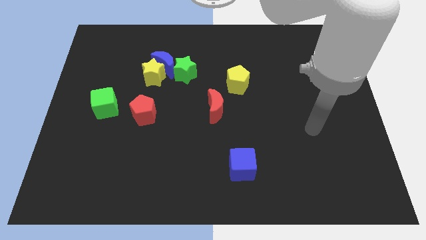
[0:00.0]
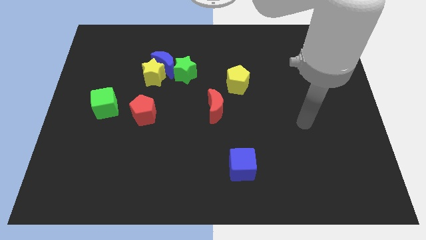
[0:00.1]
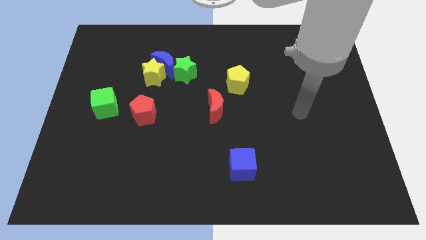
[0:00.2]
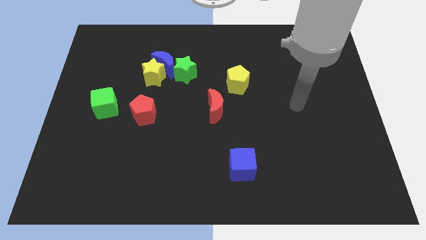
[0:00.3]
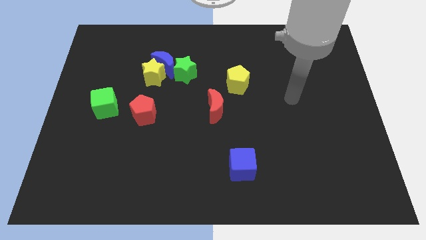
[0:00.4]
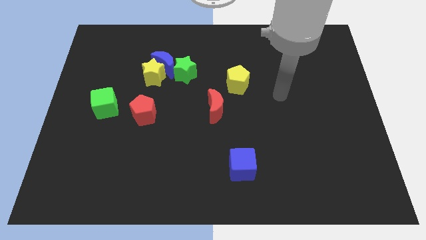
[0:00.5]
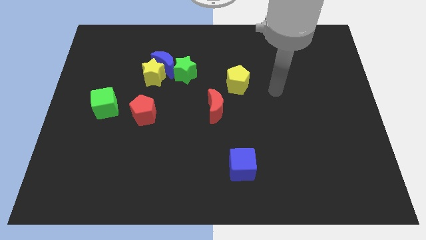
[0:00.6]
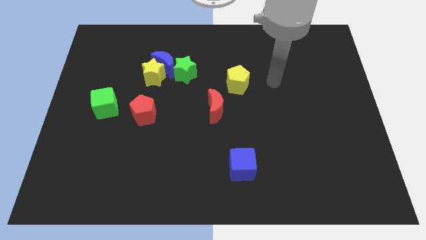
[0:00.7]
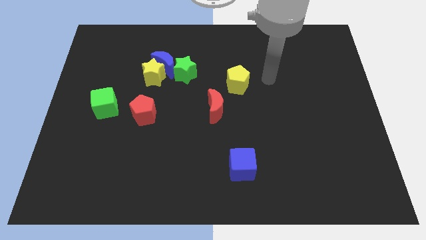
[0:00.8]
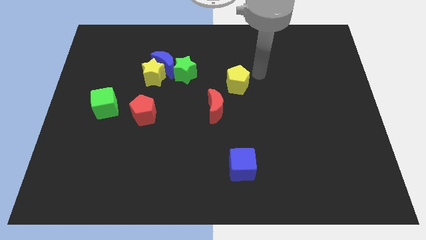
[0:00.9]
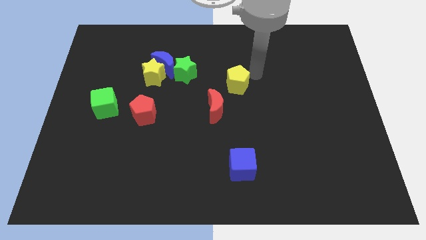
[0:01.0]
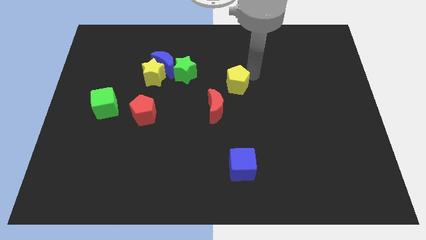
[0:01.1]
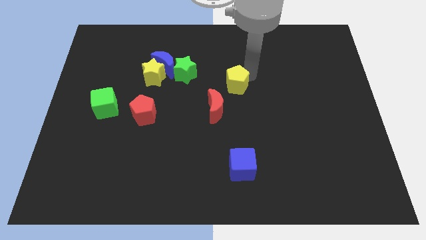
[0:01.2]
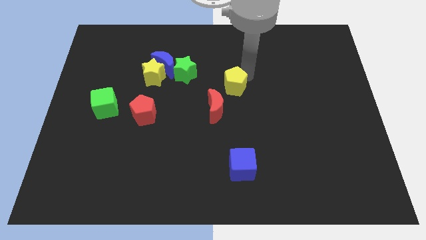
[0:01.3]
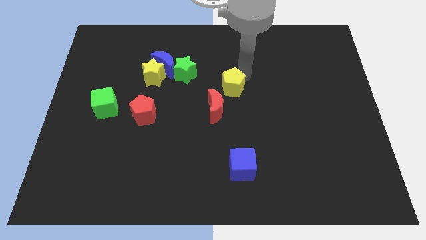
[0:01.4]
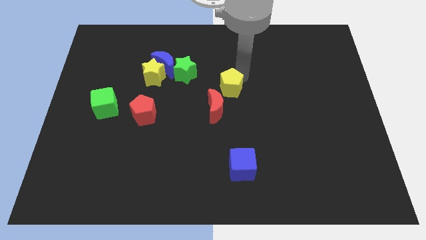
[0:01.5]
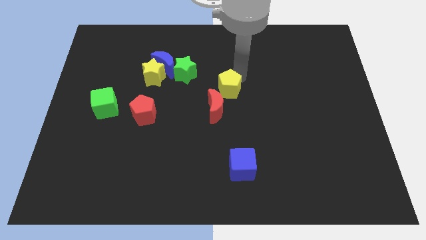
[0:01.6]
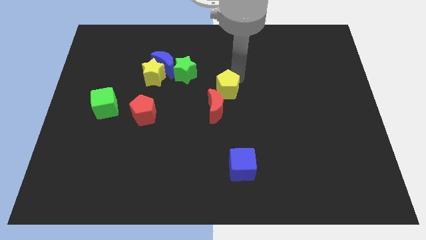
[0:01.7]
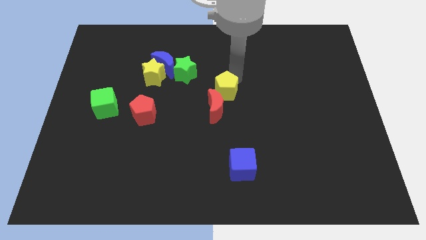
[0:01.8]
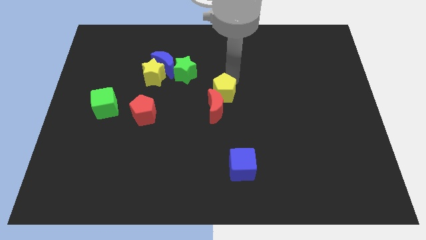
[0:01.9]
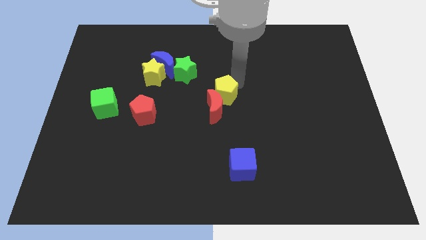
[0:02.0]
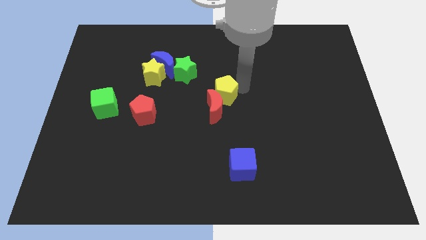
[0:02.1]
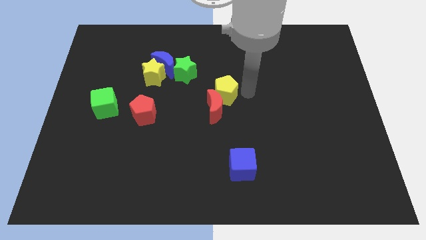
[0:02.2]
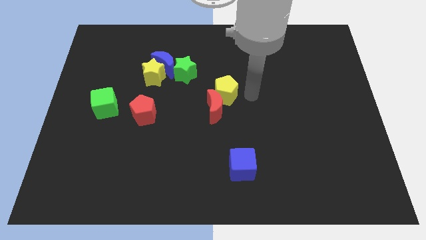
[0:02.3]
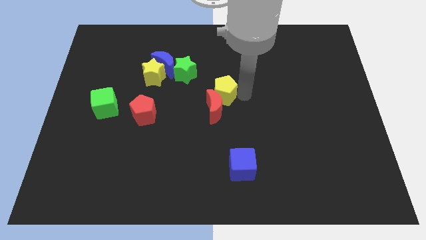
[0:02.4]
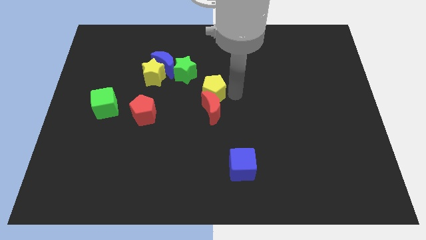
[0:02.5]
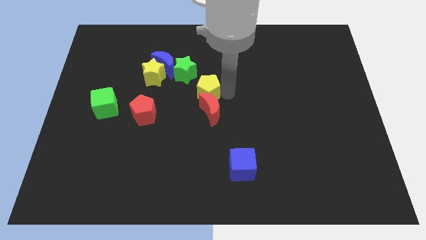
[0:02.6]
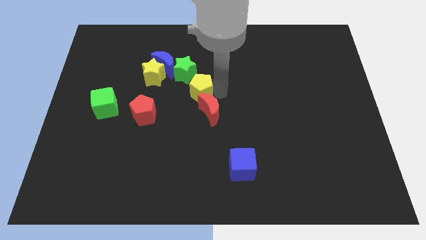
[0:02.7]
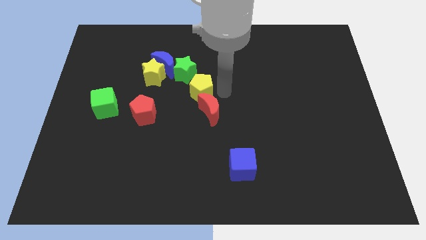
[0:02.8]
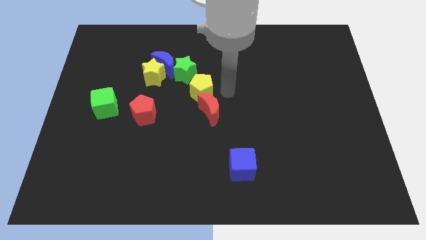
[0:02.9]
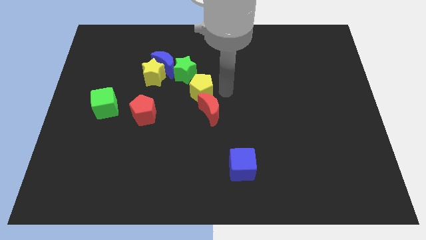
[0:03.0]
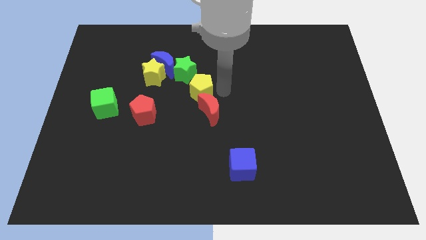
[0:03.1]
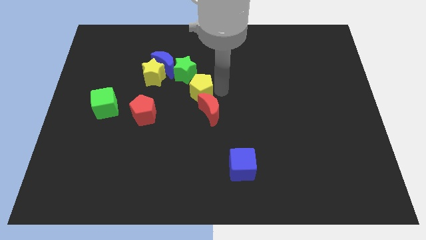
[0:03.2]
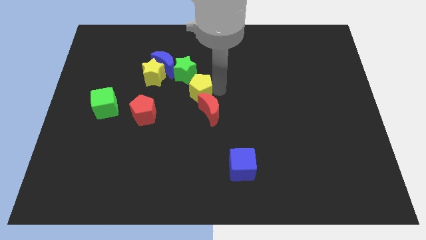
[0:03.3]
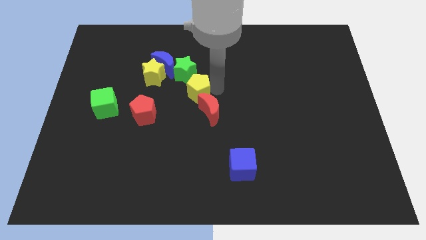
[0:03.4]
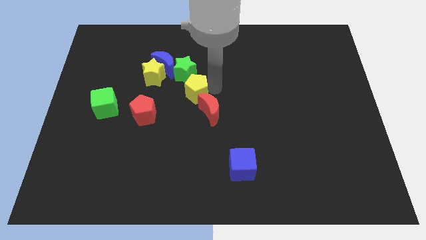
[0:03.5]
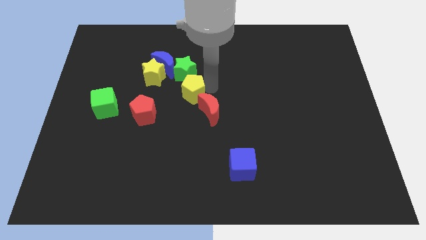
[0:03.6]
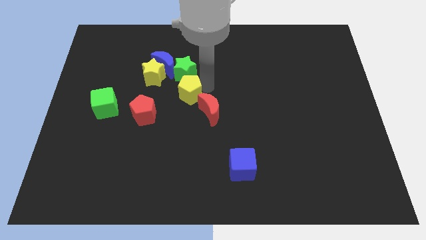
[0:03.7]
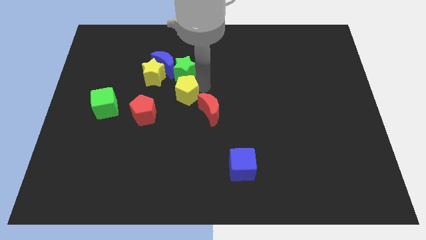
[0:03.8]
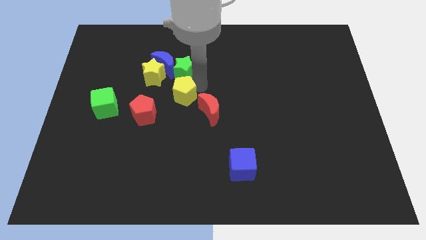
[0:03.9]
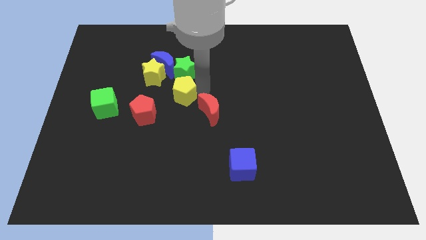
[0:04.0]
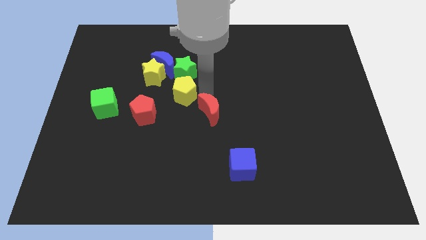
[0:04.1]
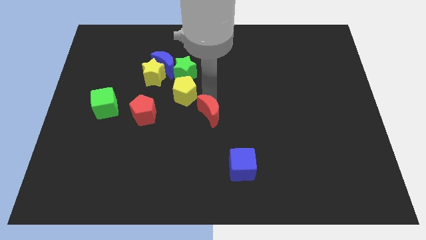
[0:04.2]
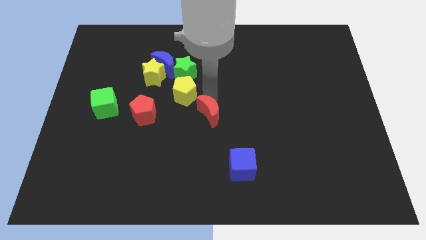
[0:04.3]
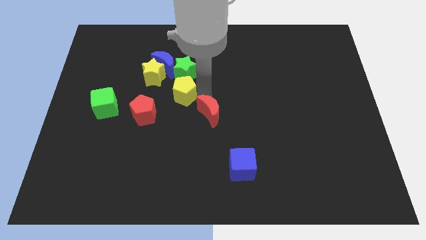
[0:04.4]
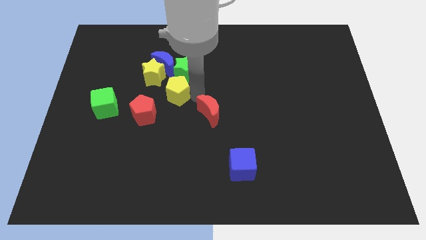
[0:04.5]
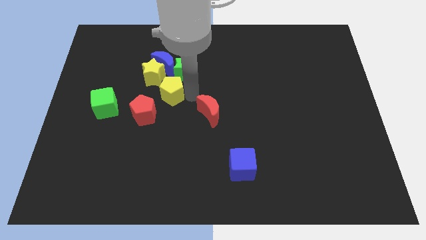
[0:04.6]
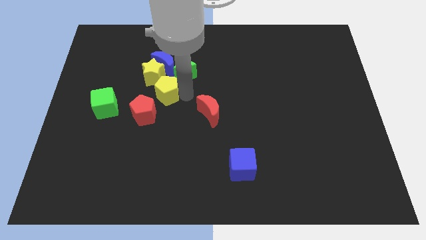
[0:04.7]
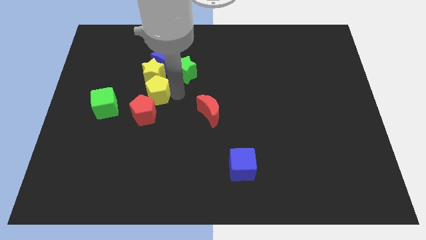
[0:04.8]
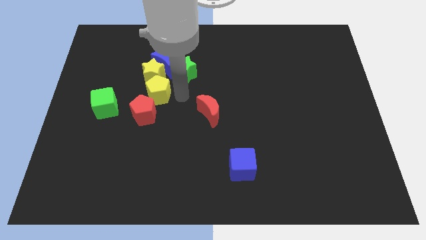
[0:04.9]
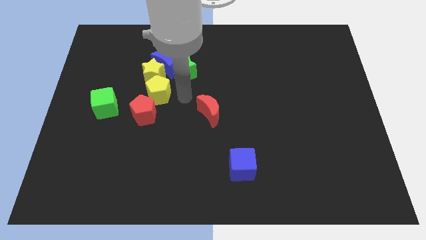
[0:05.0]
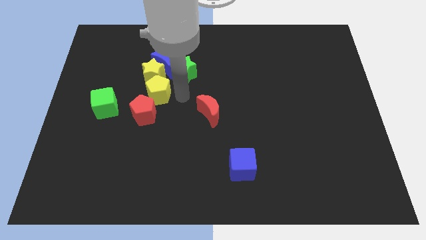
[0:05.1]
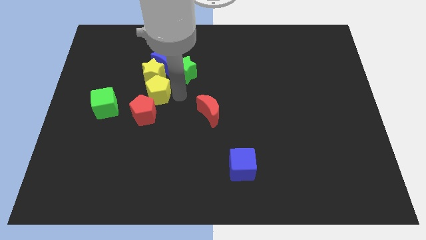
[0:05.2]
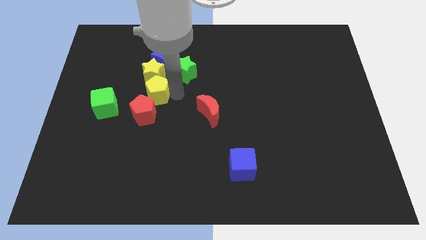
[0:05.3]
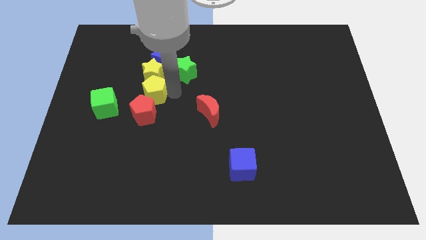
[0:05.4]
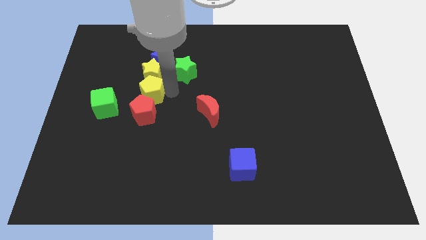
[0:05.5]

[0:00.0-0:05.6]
slide the yellow pentagon left

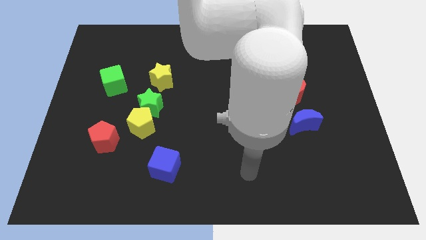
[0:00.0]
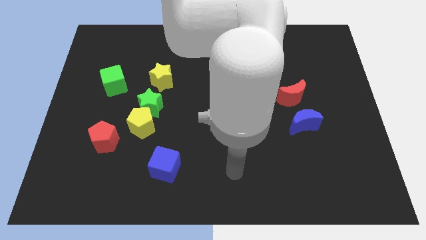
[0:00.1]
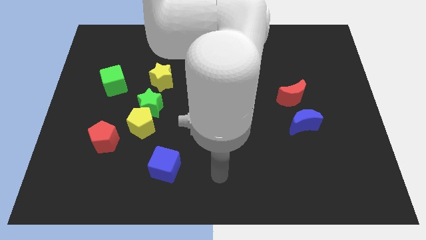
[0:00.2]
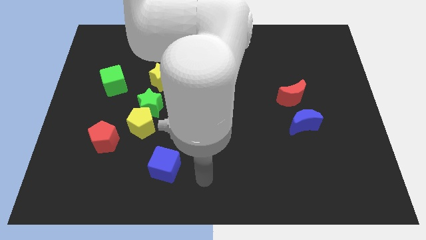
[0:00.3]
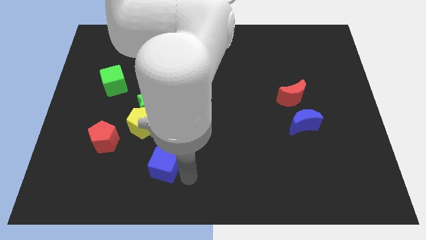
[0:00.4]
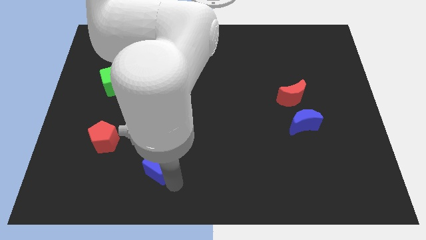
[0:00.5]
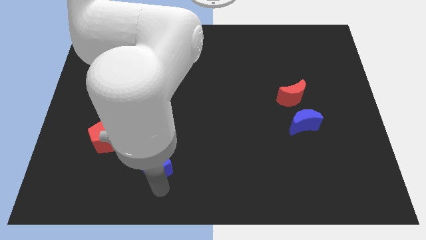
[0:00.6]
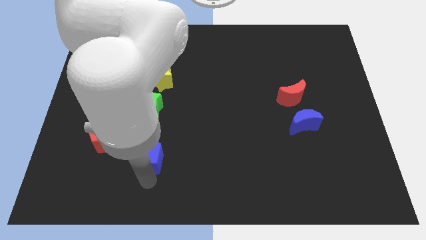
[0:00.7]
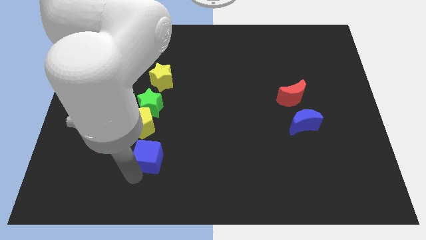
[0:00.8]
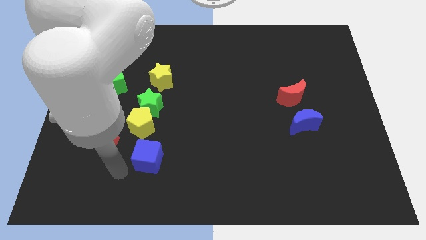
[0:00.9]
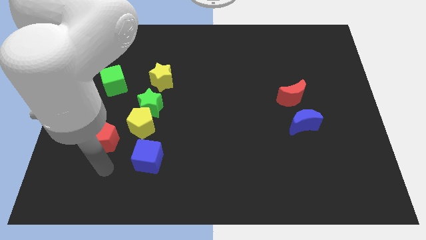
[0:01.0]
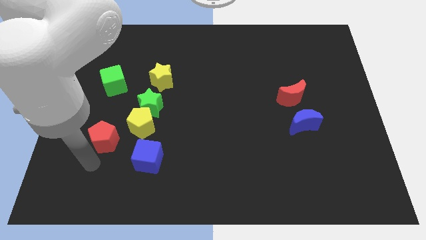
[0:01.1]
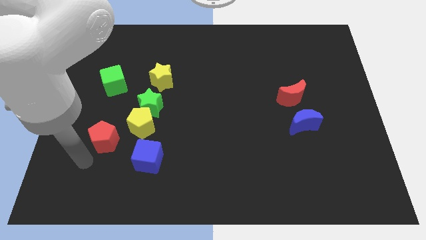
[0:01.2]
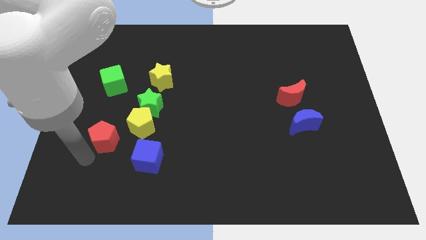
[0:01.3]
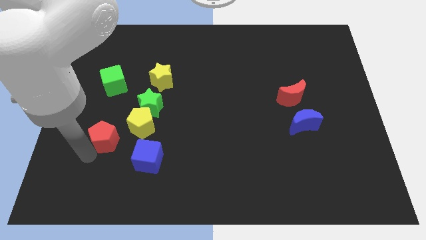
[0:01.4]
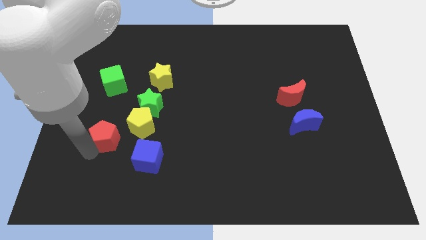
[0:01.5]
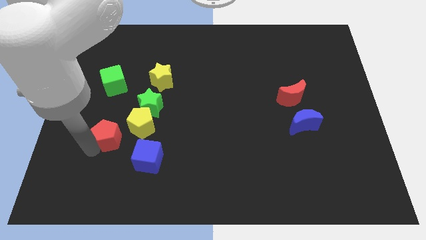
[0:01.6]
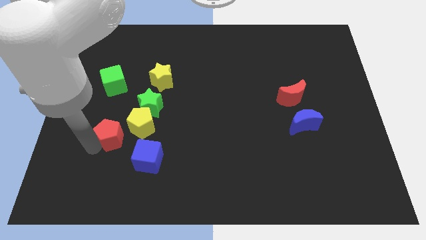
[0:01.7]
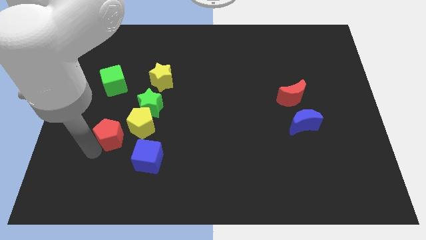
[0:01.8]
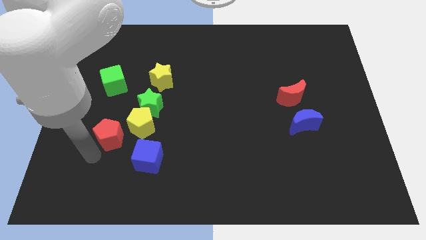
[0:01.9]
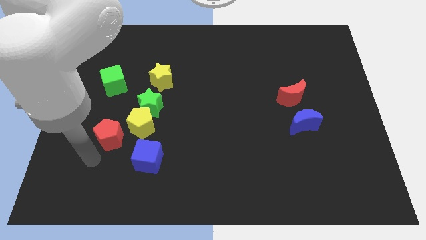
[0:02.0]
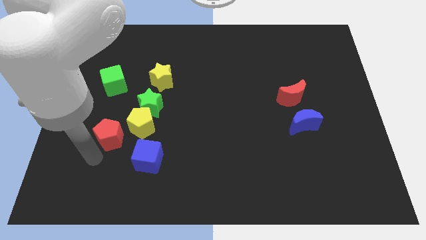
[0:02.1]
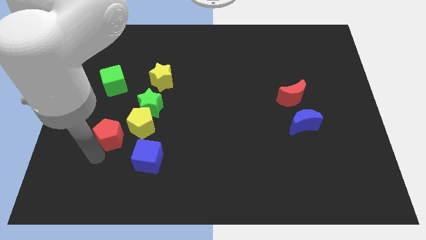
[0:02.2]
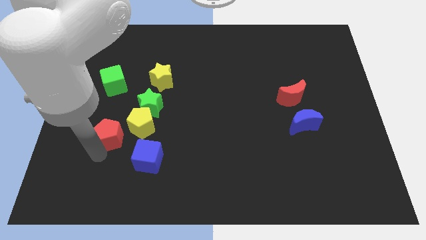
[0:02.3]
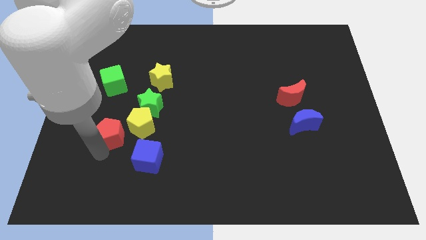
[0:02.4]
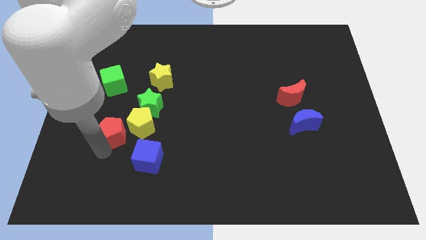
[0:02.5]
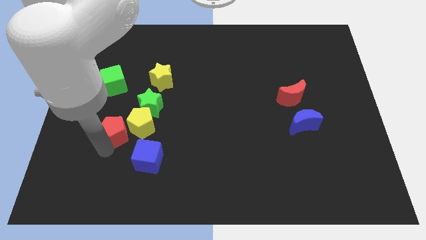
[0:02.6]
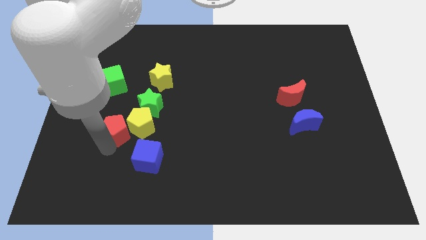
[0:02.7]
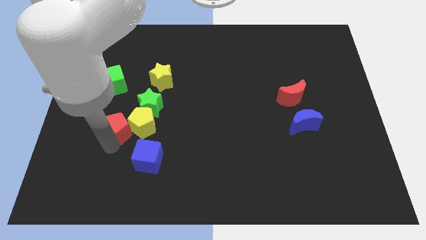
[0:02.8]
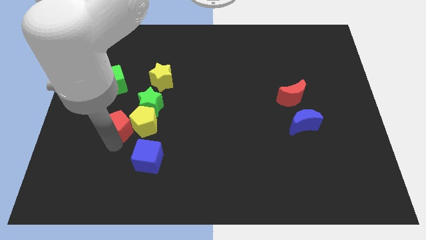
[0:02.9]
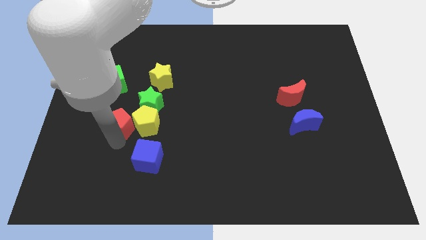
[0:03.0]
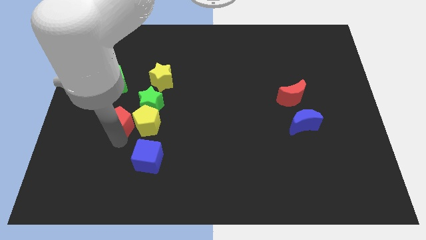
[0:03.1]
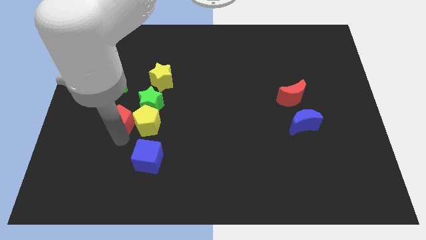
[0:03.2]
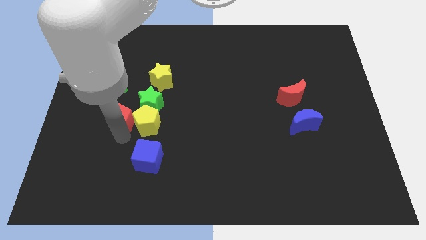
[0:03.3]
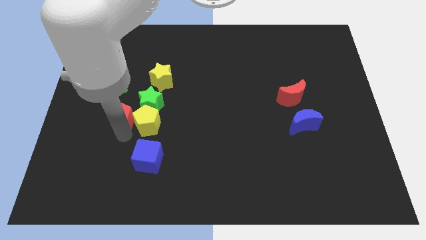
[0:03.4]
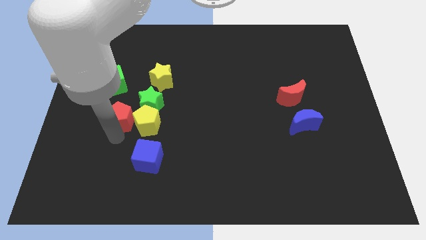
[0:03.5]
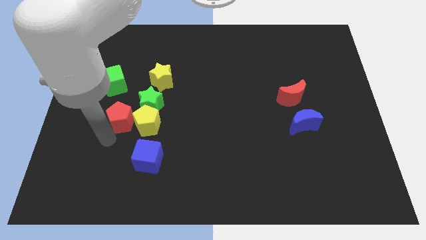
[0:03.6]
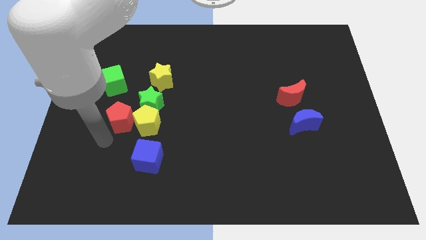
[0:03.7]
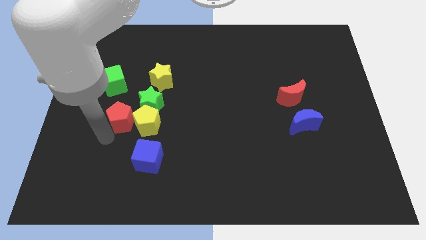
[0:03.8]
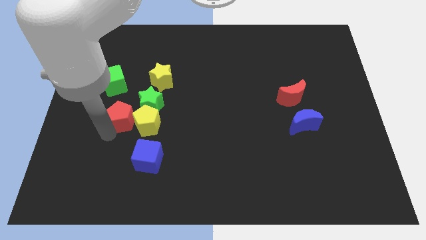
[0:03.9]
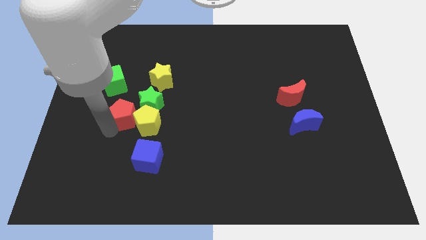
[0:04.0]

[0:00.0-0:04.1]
slide the red pentagon somewhat upwards and right
